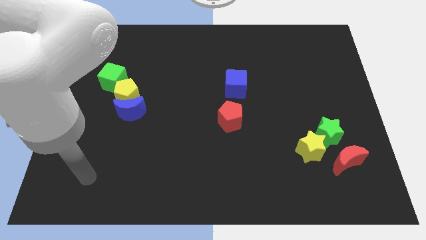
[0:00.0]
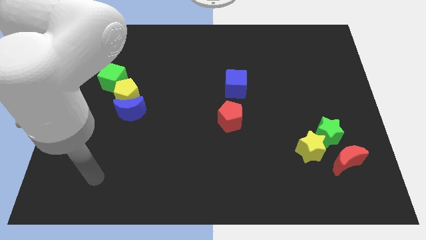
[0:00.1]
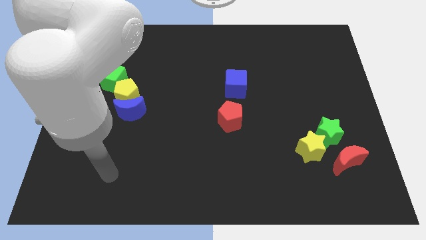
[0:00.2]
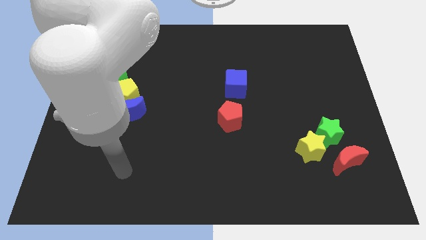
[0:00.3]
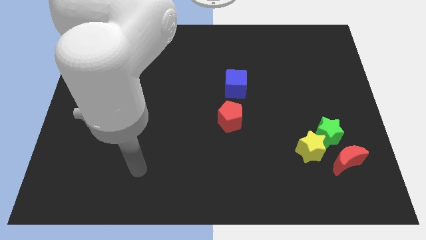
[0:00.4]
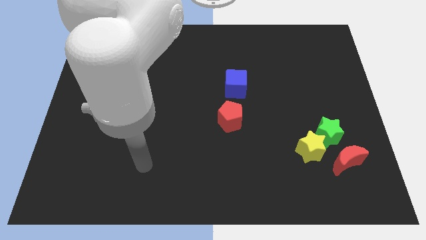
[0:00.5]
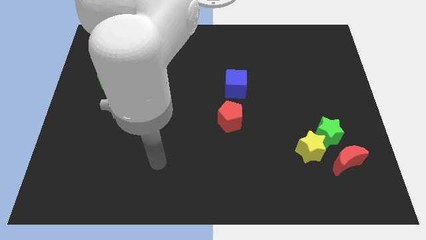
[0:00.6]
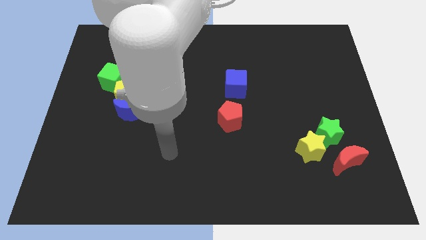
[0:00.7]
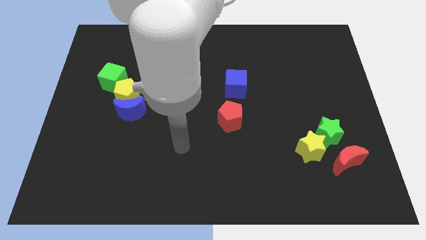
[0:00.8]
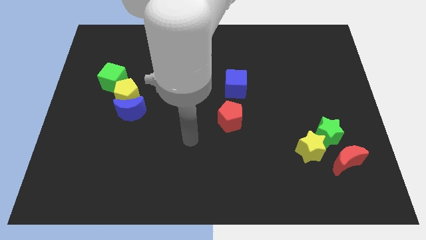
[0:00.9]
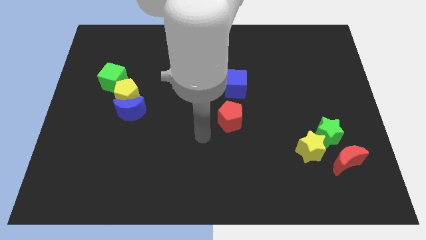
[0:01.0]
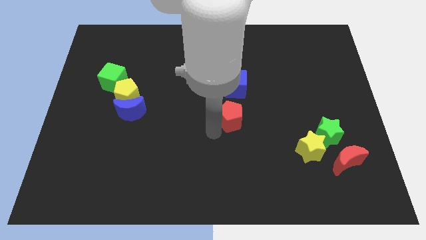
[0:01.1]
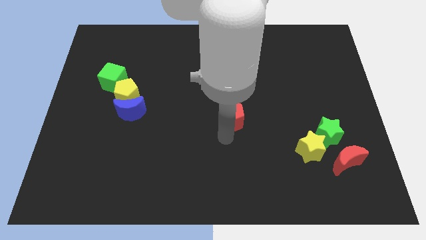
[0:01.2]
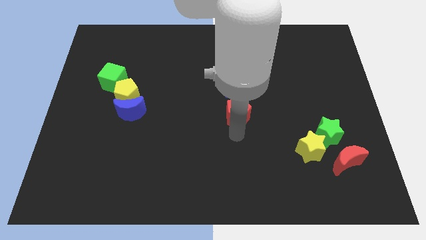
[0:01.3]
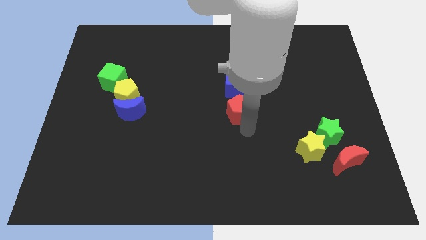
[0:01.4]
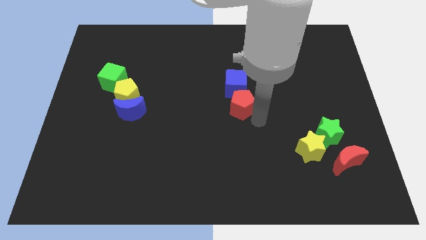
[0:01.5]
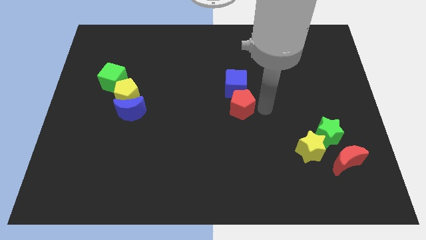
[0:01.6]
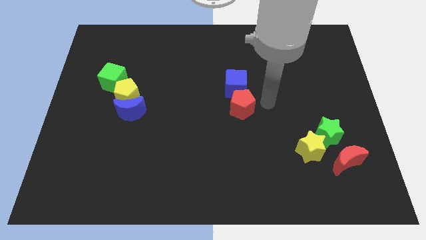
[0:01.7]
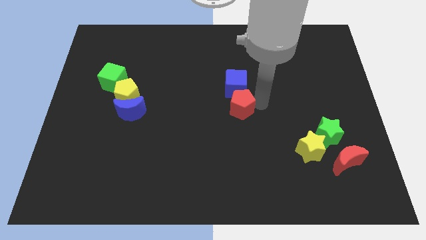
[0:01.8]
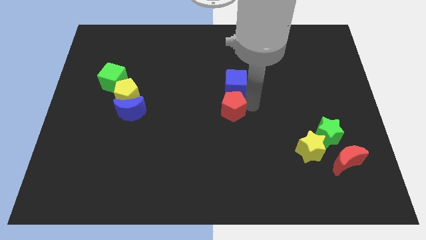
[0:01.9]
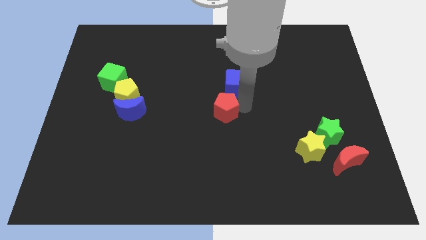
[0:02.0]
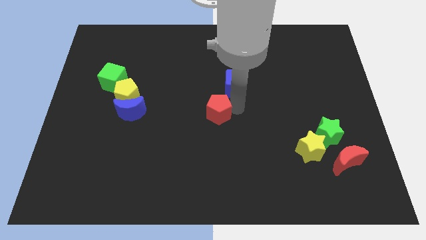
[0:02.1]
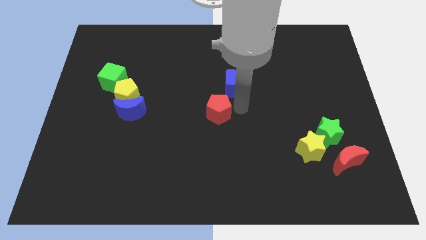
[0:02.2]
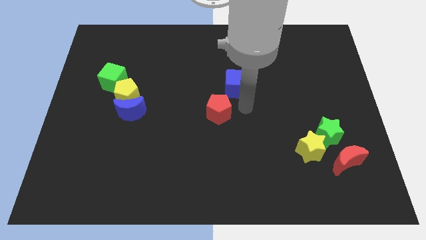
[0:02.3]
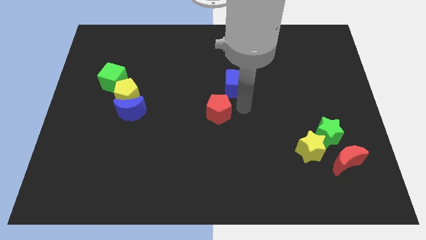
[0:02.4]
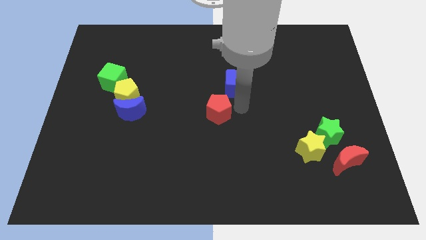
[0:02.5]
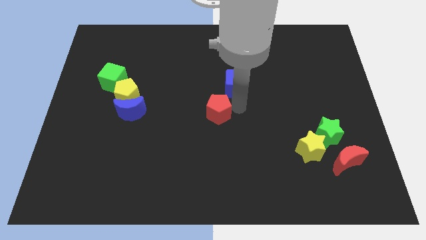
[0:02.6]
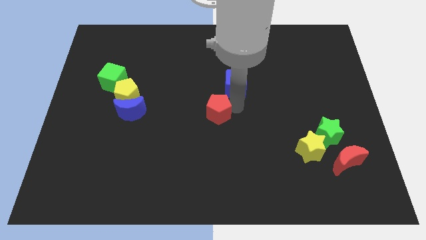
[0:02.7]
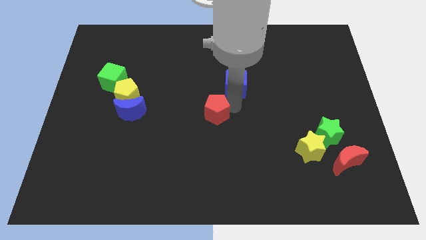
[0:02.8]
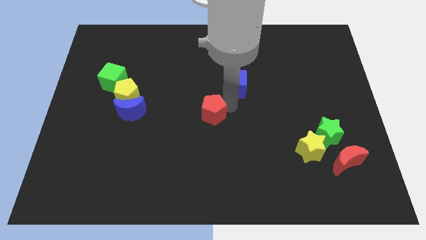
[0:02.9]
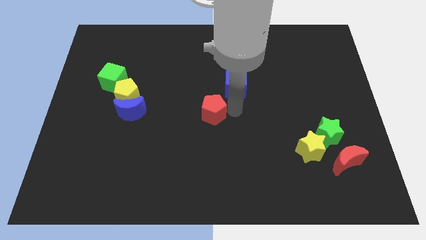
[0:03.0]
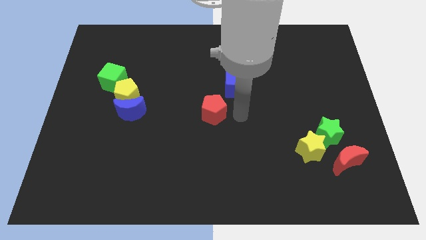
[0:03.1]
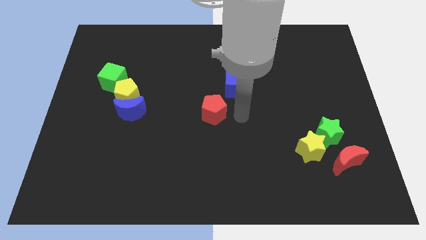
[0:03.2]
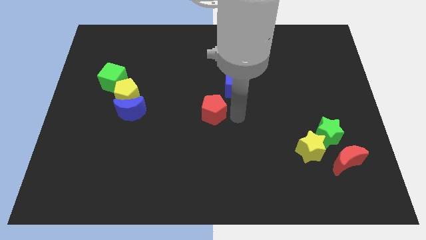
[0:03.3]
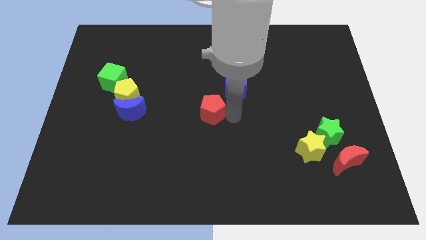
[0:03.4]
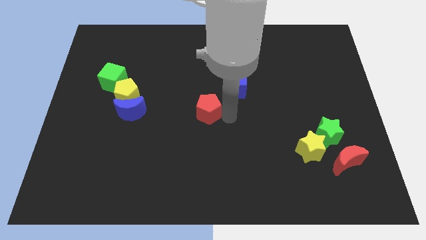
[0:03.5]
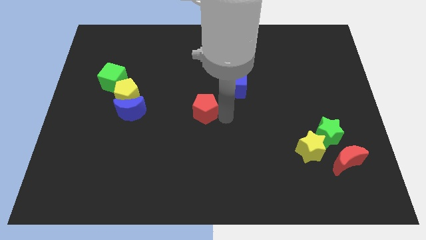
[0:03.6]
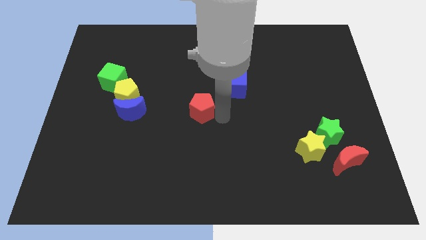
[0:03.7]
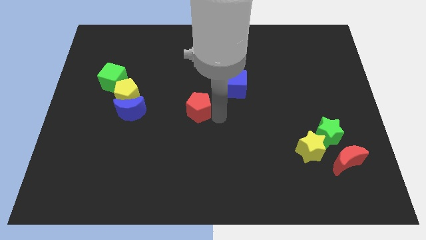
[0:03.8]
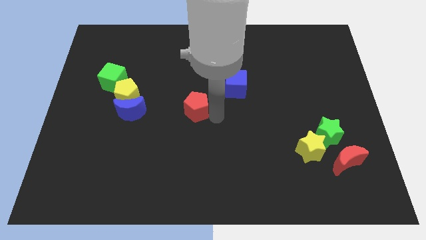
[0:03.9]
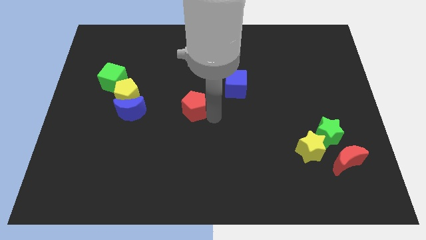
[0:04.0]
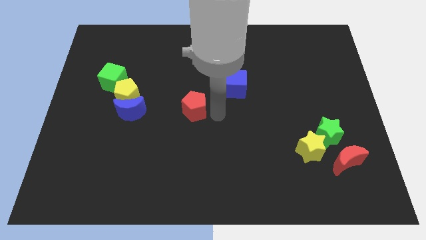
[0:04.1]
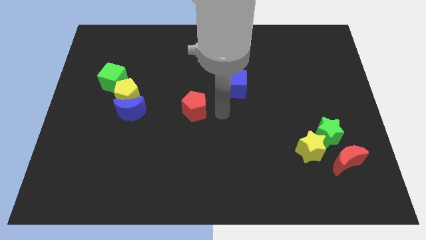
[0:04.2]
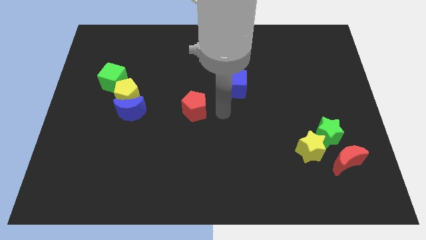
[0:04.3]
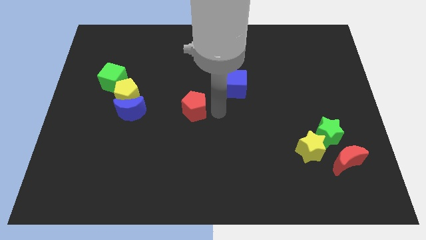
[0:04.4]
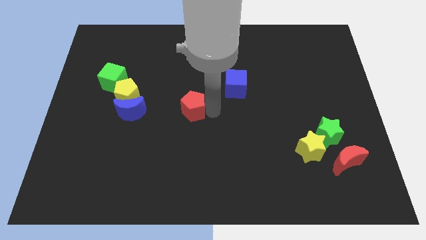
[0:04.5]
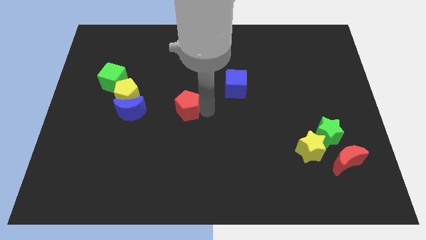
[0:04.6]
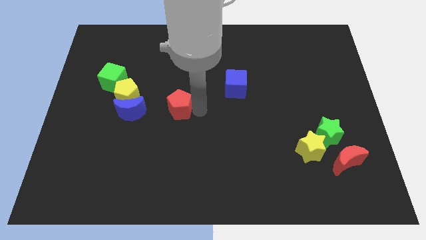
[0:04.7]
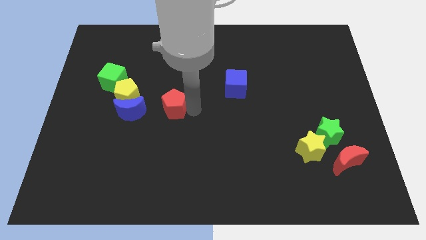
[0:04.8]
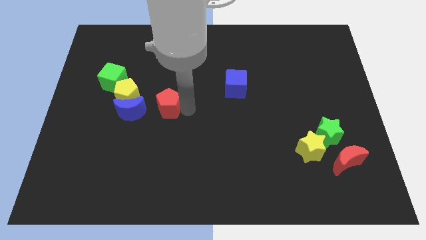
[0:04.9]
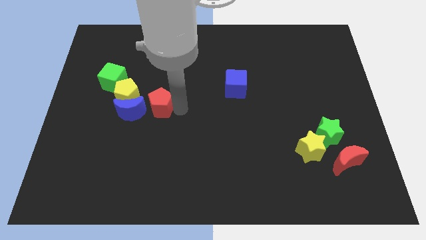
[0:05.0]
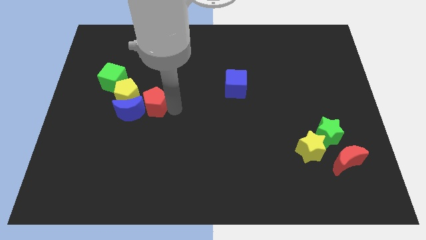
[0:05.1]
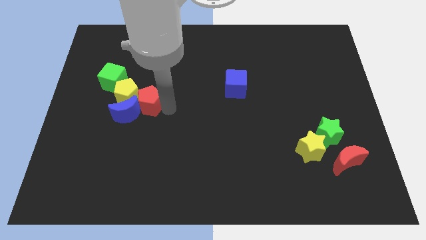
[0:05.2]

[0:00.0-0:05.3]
move the red pentagon towards the yellow pentagon

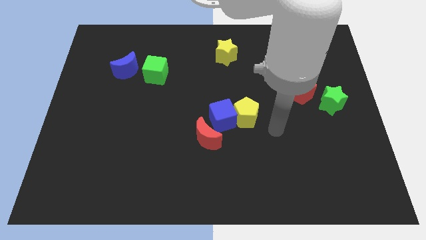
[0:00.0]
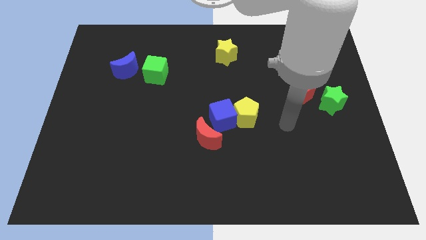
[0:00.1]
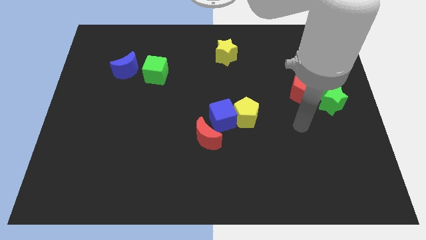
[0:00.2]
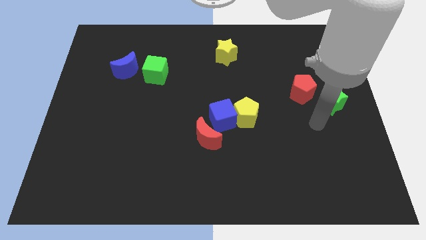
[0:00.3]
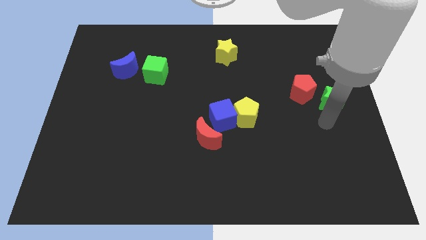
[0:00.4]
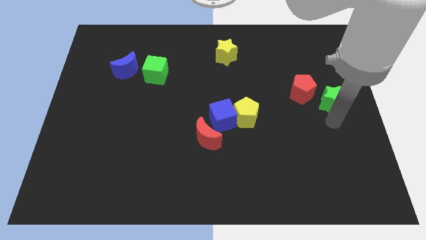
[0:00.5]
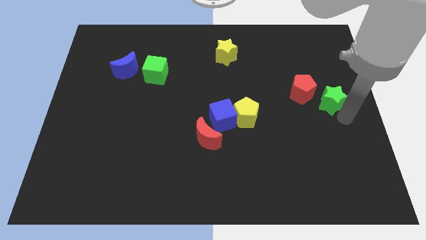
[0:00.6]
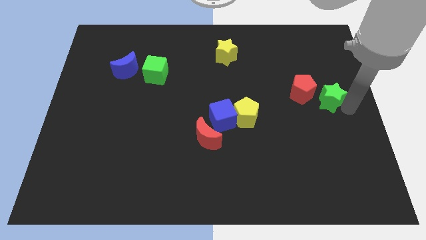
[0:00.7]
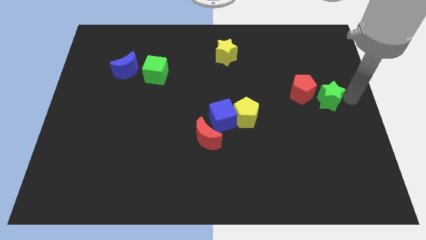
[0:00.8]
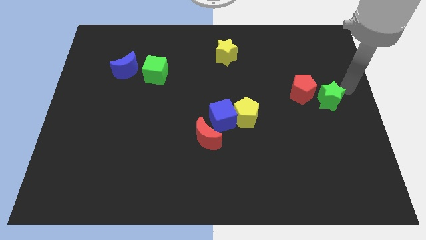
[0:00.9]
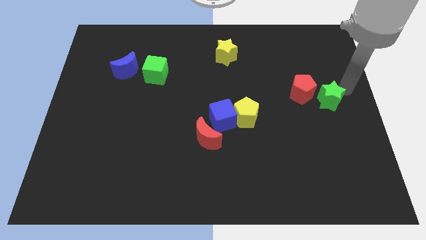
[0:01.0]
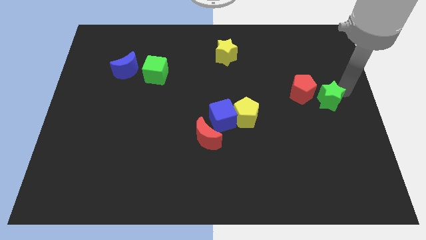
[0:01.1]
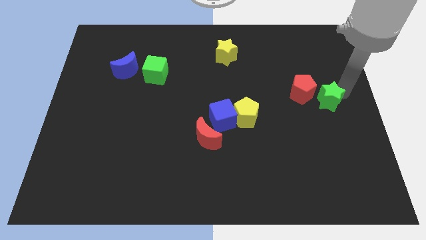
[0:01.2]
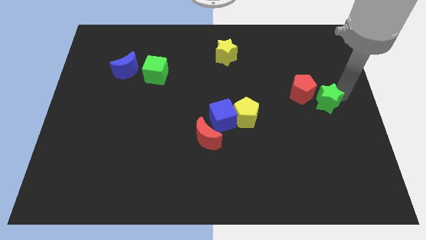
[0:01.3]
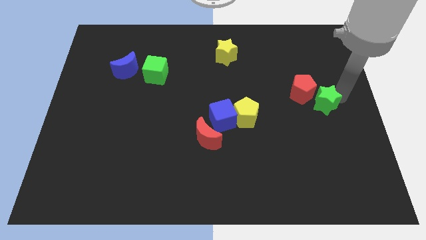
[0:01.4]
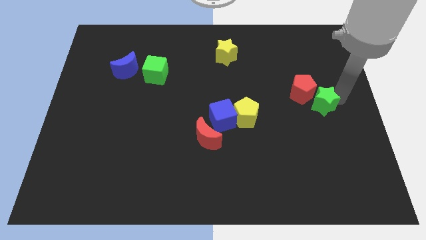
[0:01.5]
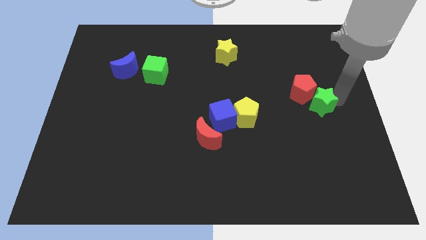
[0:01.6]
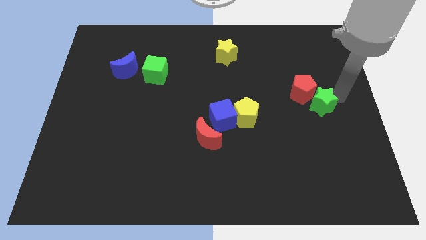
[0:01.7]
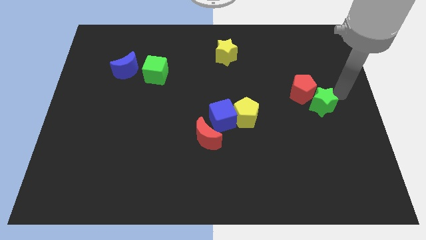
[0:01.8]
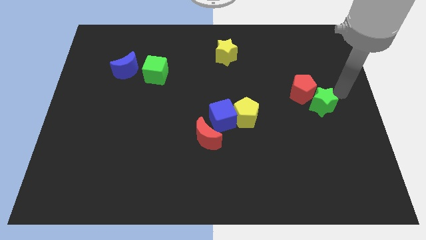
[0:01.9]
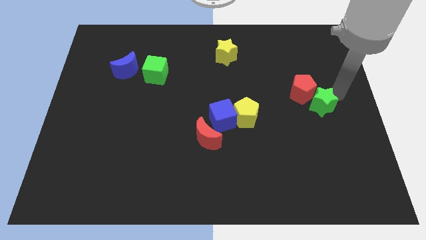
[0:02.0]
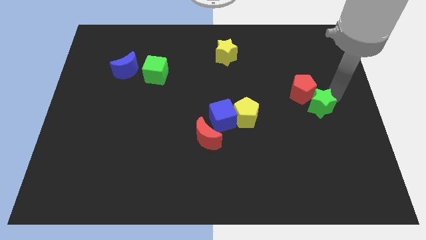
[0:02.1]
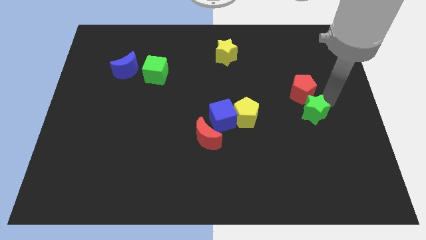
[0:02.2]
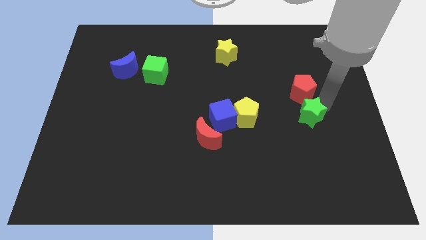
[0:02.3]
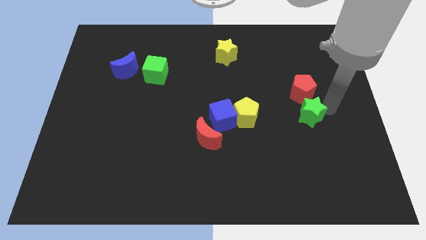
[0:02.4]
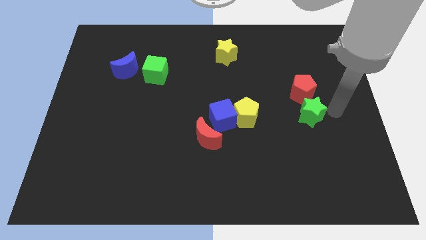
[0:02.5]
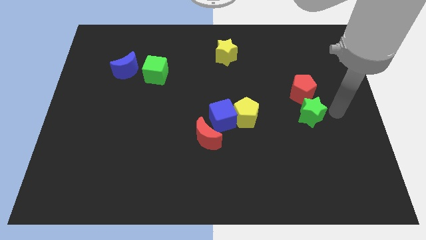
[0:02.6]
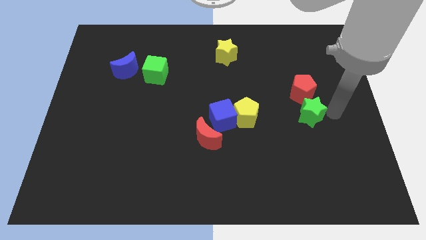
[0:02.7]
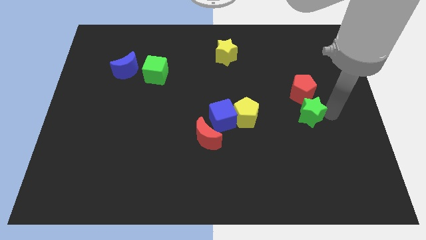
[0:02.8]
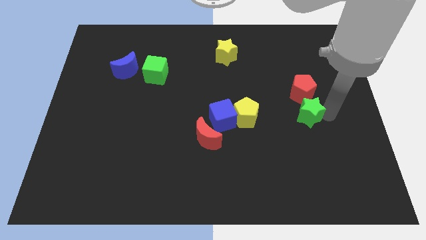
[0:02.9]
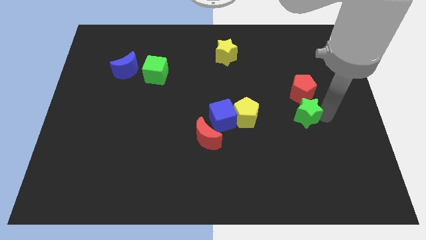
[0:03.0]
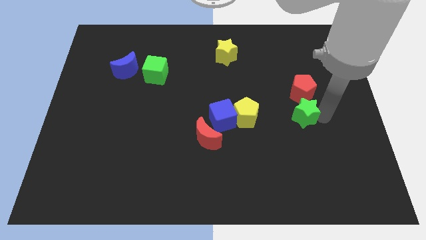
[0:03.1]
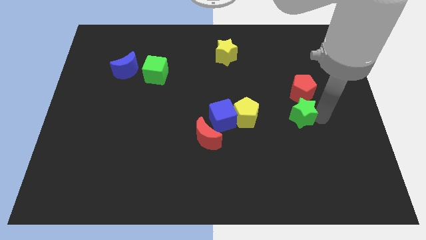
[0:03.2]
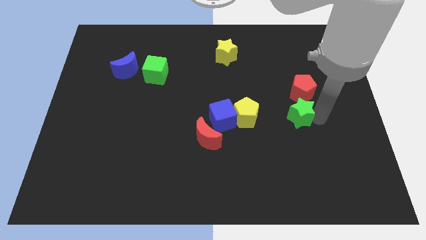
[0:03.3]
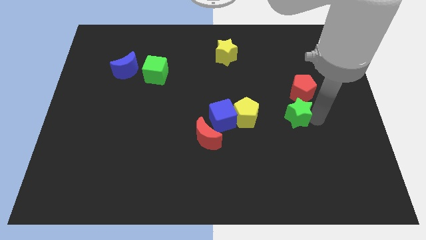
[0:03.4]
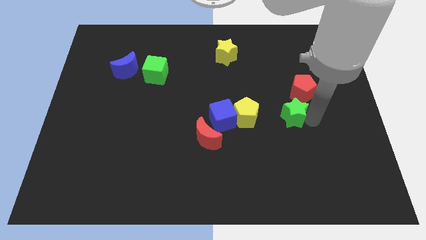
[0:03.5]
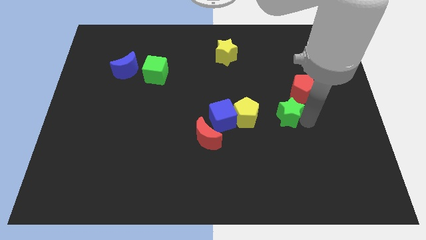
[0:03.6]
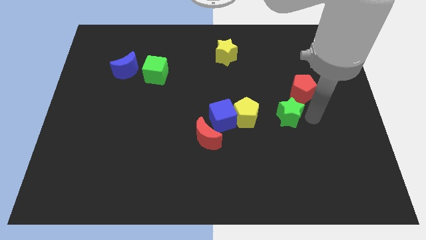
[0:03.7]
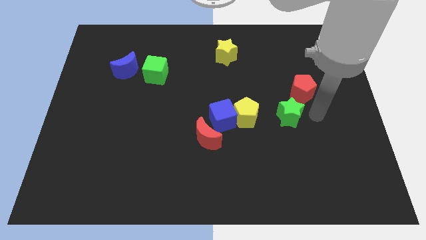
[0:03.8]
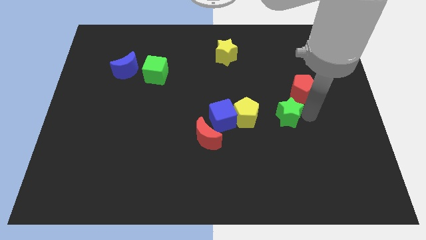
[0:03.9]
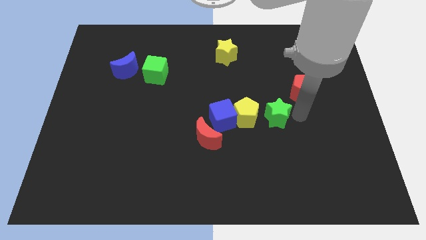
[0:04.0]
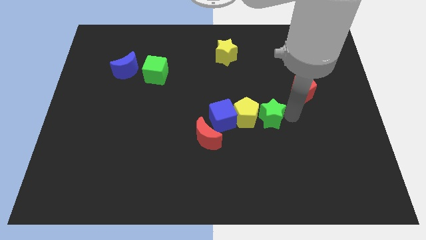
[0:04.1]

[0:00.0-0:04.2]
put the green star next to the yellow pentagon
